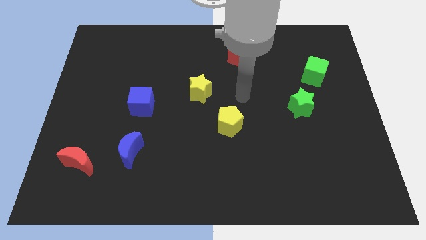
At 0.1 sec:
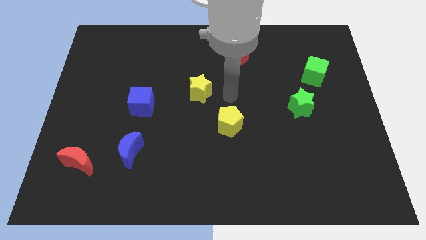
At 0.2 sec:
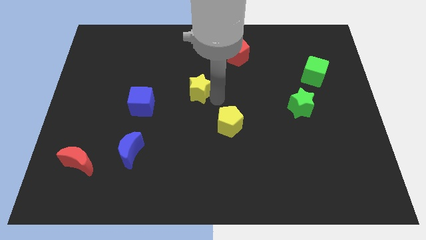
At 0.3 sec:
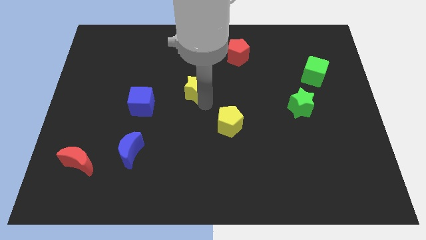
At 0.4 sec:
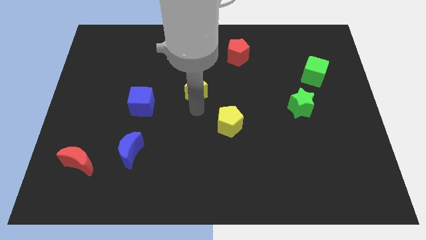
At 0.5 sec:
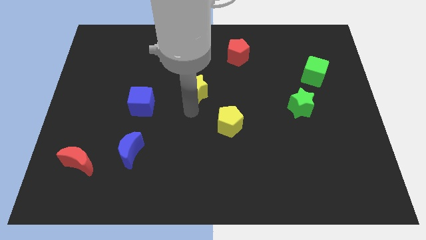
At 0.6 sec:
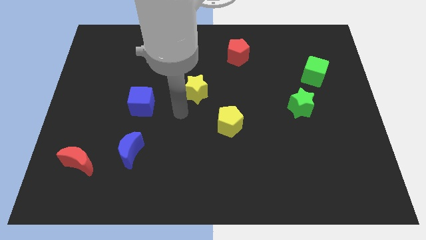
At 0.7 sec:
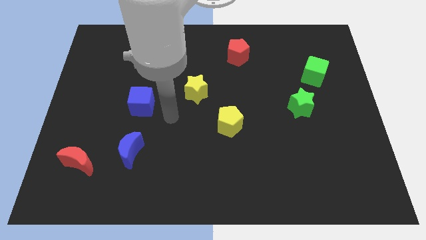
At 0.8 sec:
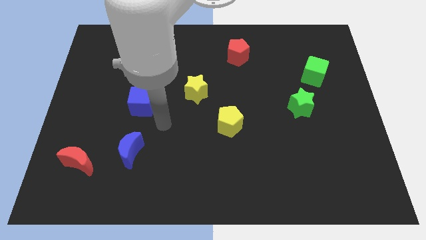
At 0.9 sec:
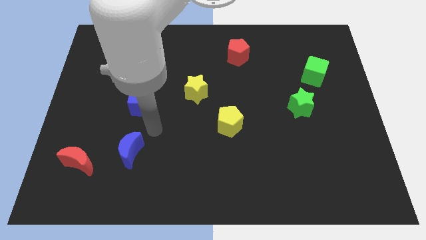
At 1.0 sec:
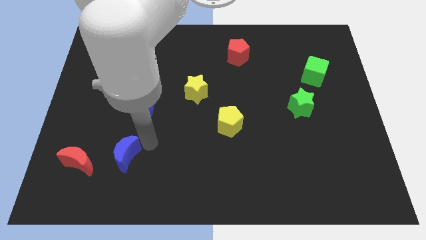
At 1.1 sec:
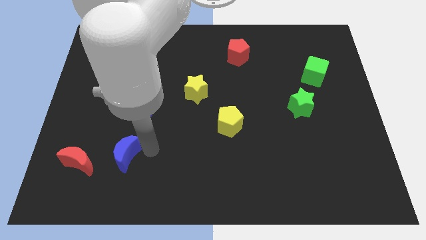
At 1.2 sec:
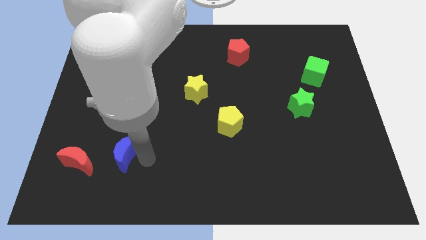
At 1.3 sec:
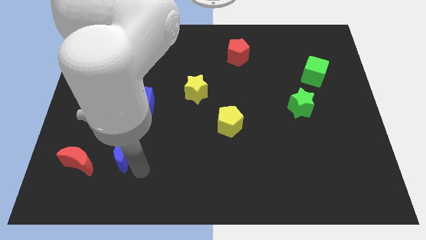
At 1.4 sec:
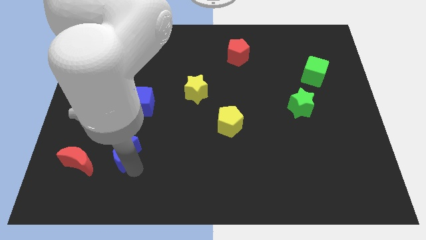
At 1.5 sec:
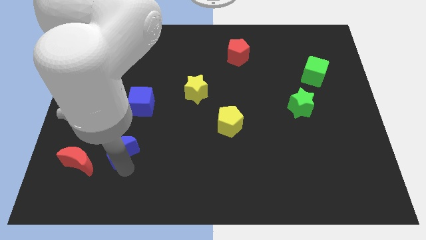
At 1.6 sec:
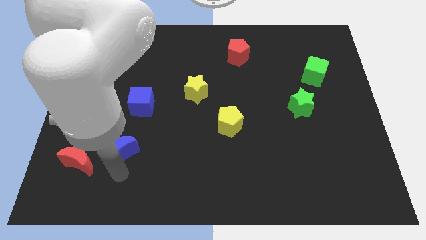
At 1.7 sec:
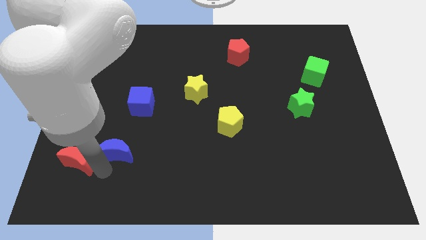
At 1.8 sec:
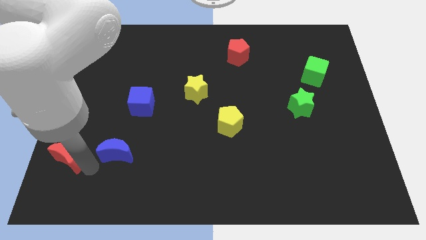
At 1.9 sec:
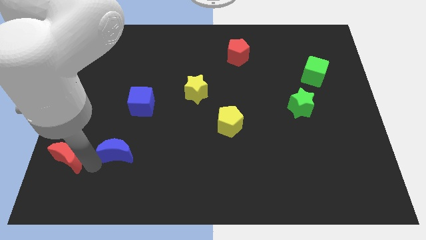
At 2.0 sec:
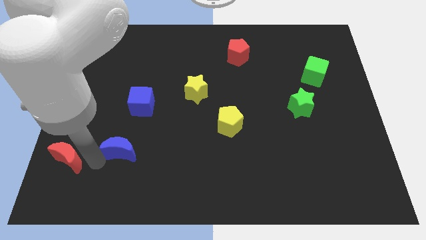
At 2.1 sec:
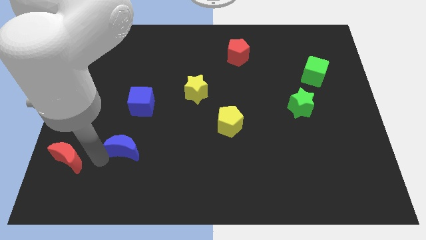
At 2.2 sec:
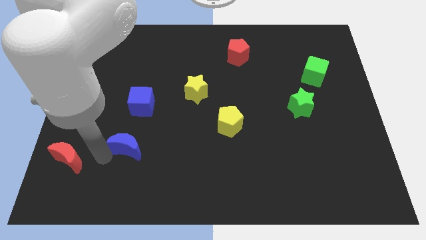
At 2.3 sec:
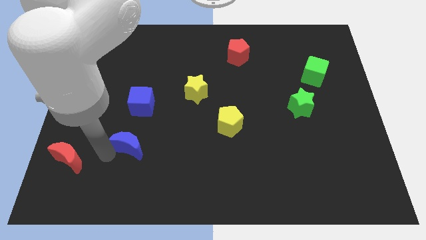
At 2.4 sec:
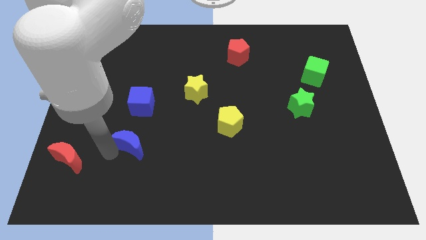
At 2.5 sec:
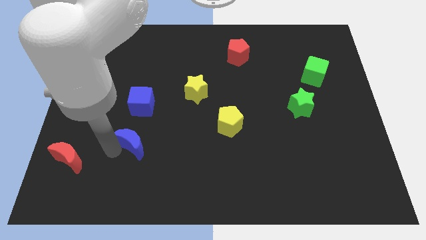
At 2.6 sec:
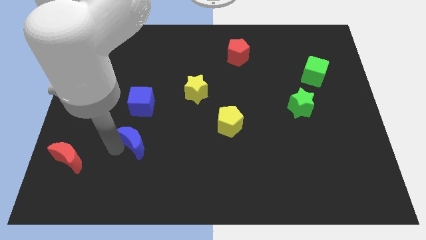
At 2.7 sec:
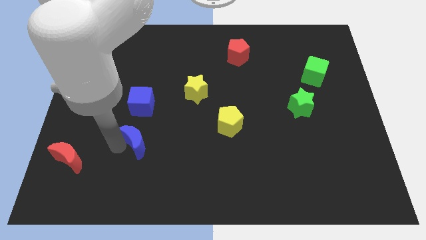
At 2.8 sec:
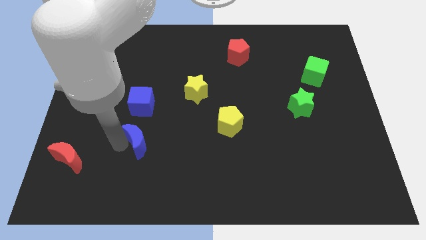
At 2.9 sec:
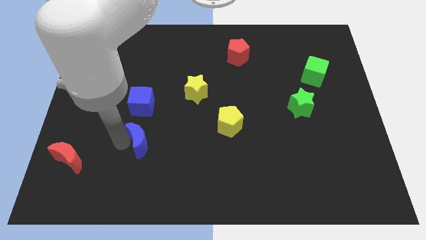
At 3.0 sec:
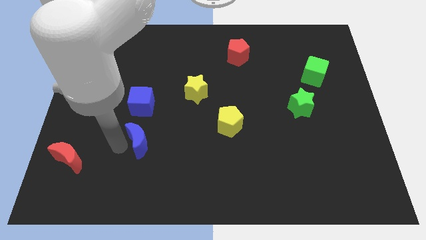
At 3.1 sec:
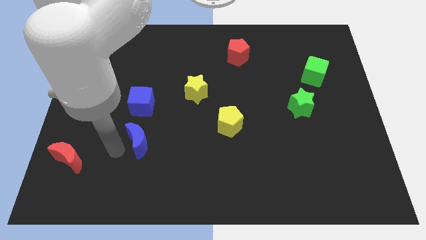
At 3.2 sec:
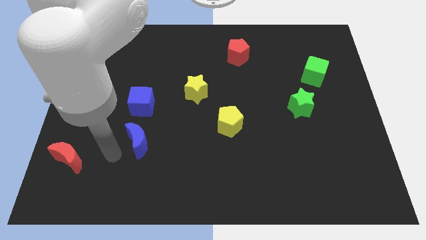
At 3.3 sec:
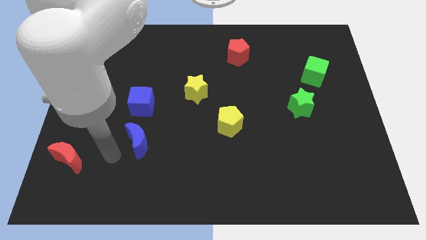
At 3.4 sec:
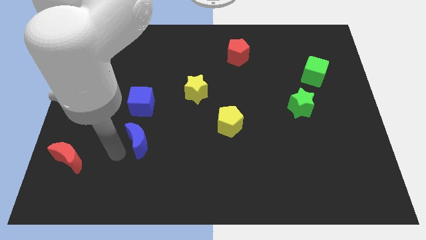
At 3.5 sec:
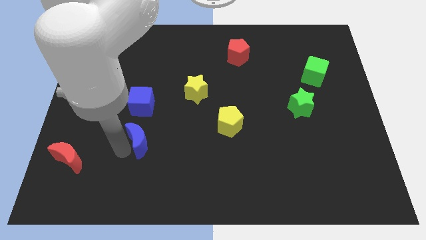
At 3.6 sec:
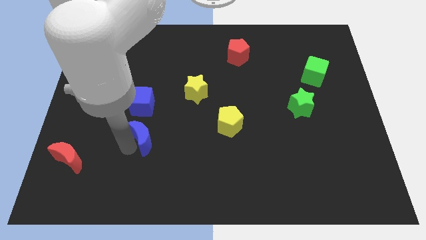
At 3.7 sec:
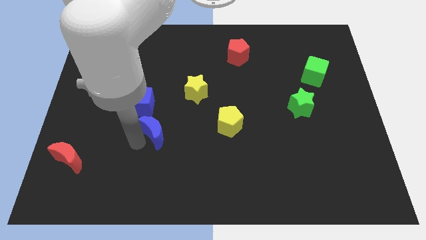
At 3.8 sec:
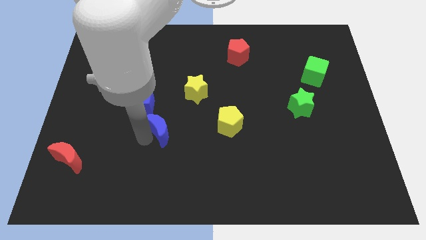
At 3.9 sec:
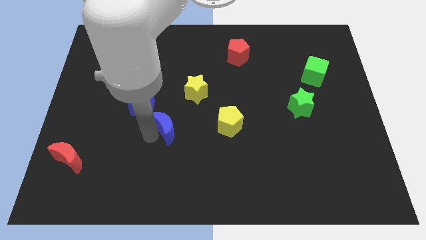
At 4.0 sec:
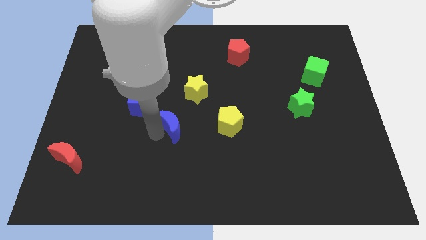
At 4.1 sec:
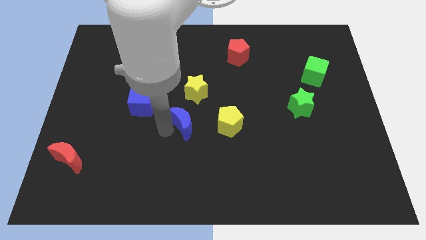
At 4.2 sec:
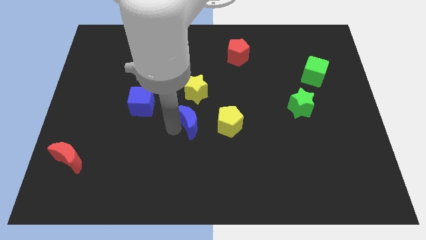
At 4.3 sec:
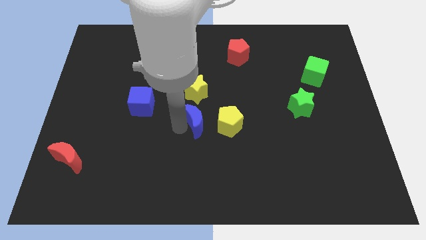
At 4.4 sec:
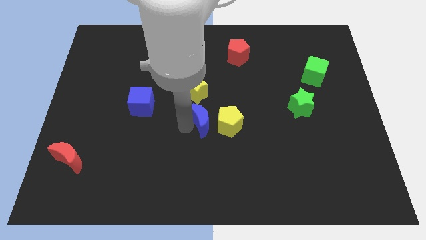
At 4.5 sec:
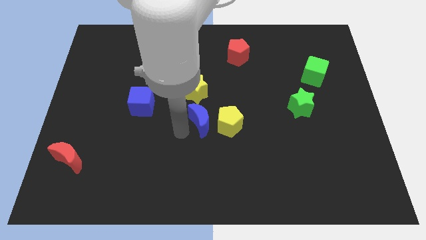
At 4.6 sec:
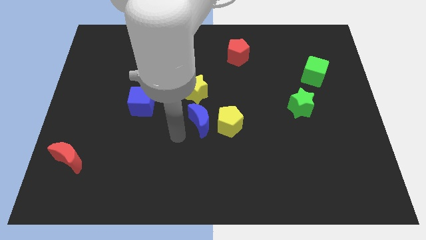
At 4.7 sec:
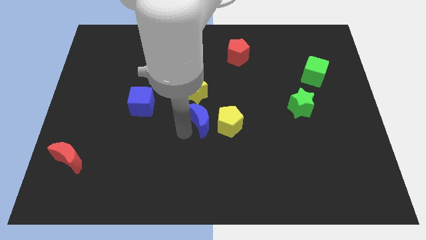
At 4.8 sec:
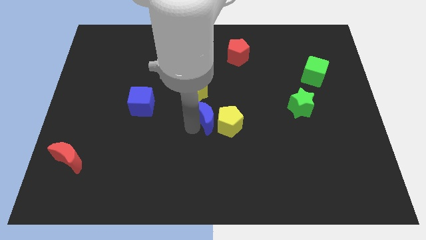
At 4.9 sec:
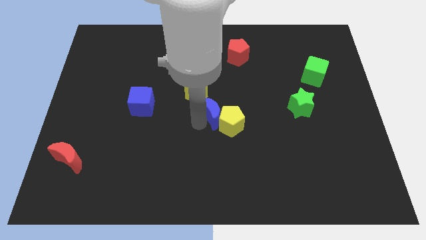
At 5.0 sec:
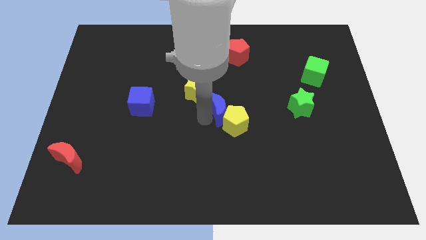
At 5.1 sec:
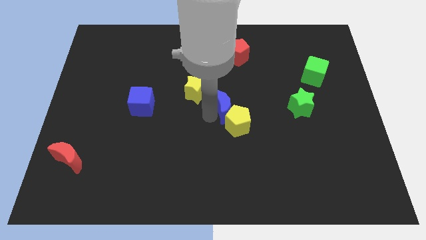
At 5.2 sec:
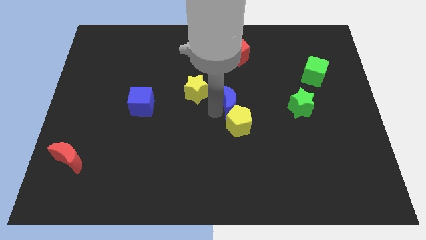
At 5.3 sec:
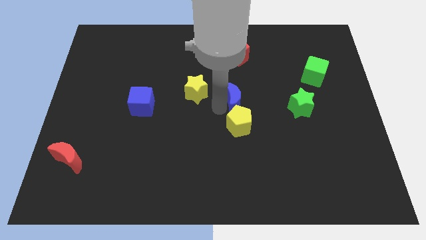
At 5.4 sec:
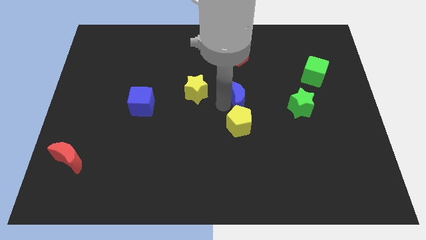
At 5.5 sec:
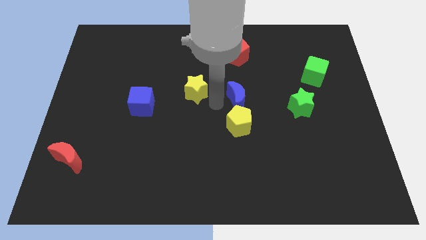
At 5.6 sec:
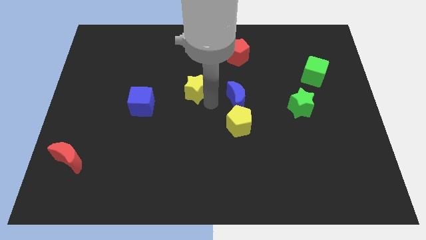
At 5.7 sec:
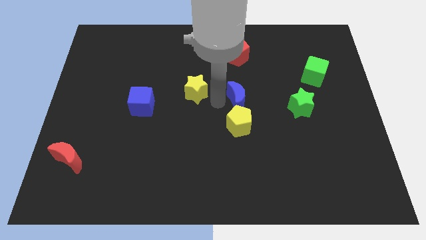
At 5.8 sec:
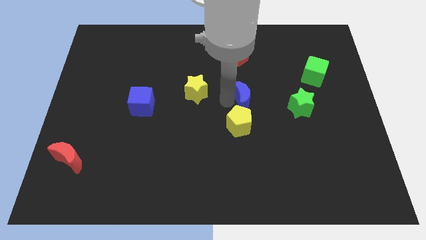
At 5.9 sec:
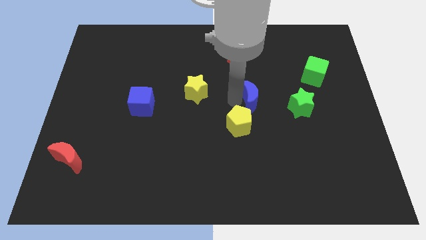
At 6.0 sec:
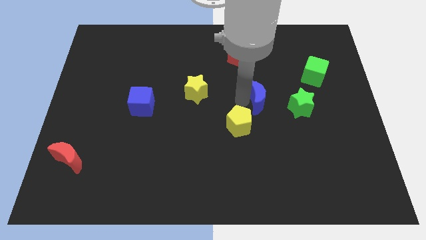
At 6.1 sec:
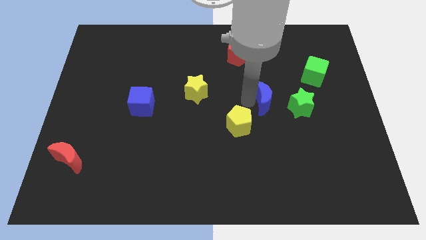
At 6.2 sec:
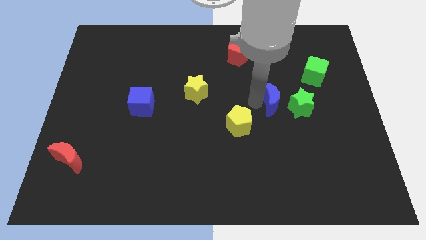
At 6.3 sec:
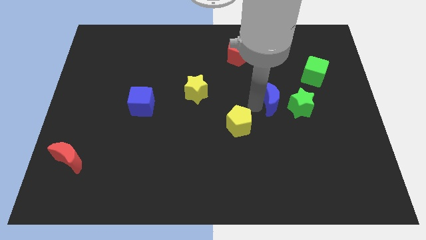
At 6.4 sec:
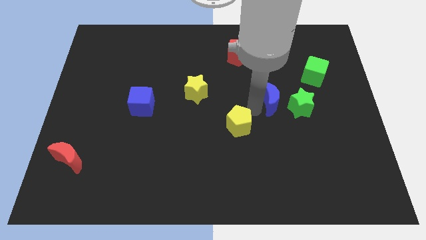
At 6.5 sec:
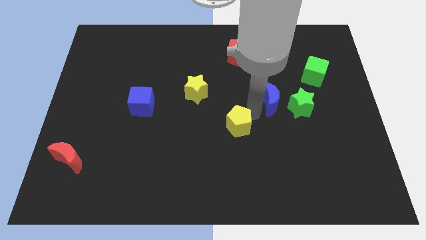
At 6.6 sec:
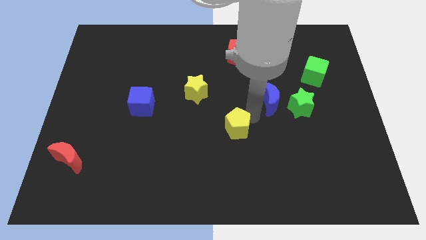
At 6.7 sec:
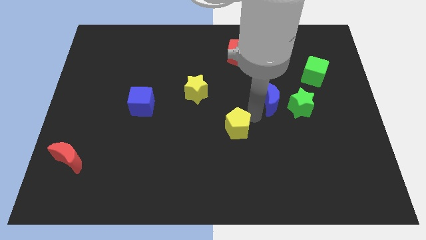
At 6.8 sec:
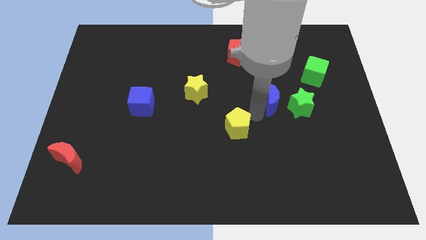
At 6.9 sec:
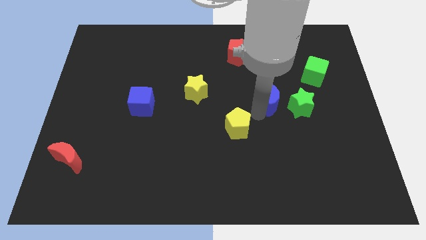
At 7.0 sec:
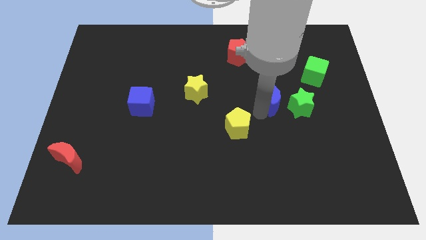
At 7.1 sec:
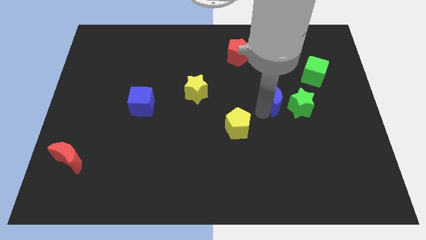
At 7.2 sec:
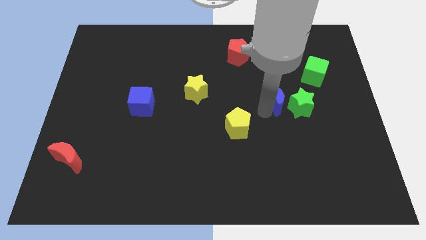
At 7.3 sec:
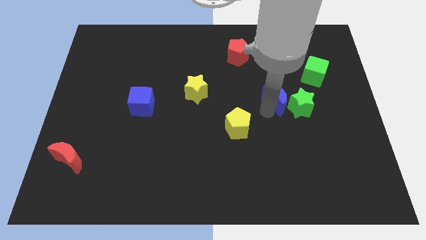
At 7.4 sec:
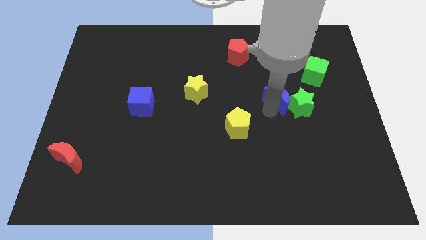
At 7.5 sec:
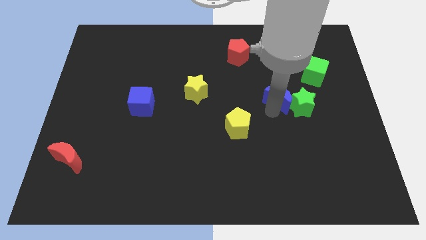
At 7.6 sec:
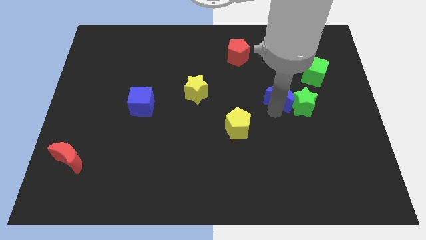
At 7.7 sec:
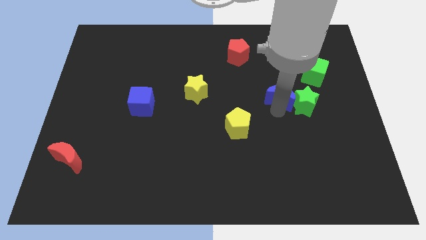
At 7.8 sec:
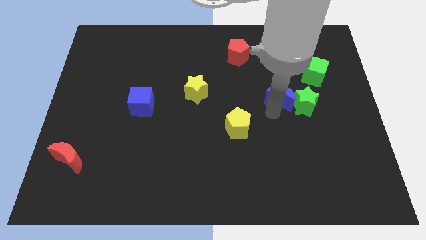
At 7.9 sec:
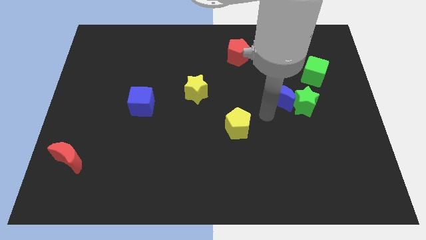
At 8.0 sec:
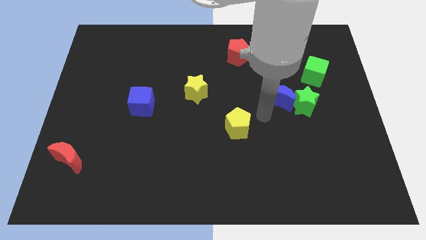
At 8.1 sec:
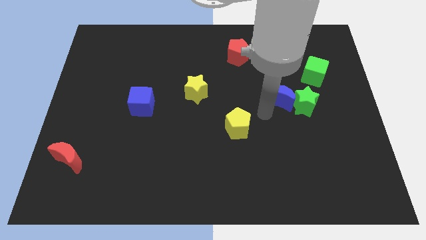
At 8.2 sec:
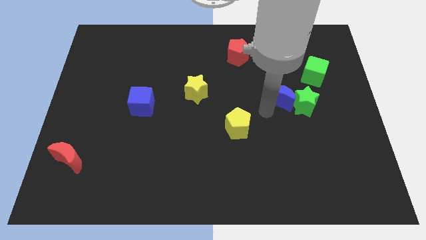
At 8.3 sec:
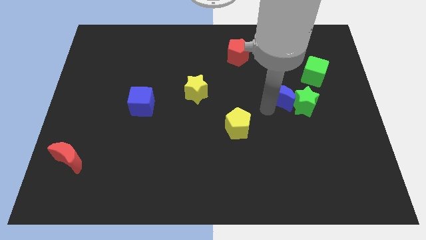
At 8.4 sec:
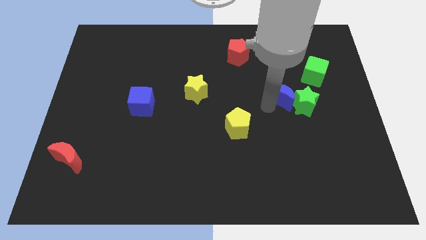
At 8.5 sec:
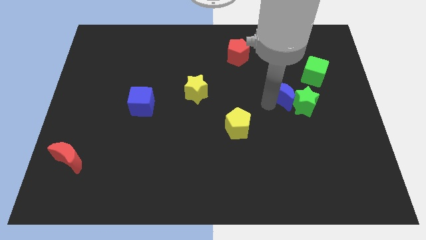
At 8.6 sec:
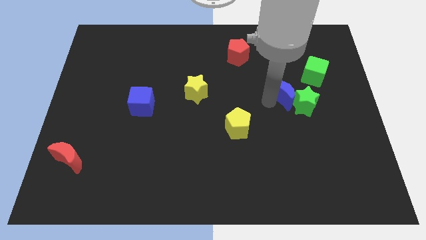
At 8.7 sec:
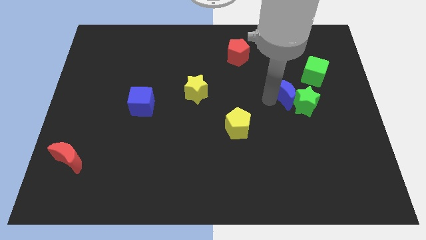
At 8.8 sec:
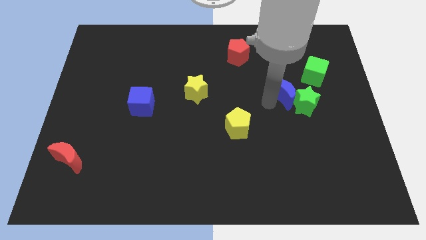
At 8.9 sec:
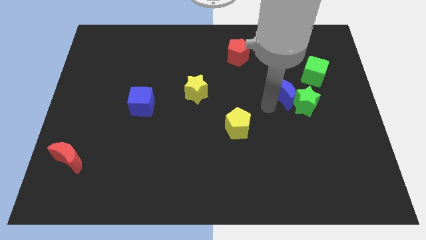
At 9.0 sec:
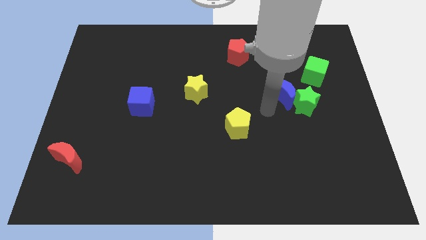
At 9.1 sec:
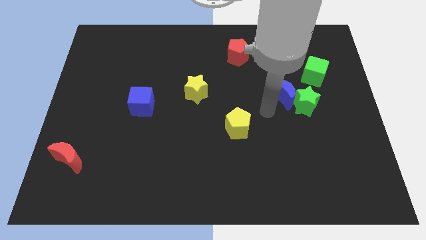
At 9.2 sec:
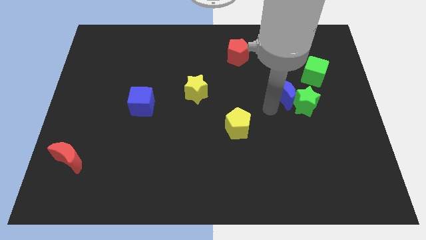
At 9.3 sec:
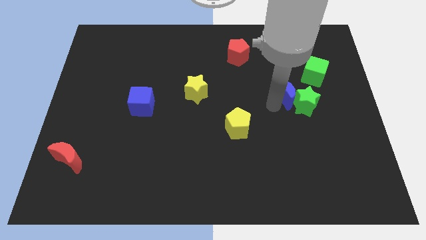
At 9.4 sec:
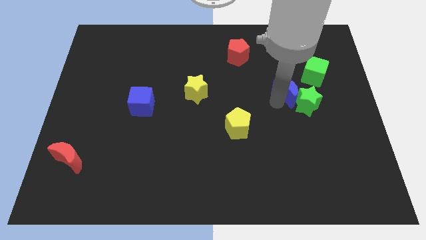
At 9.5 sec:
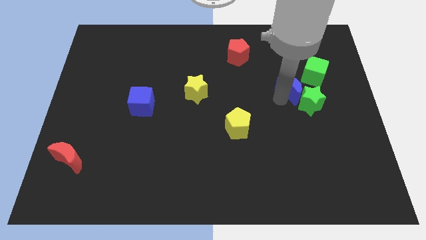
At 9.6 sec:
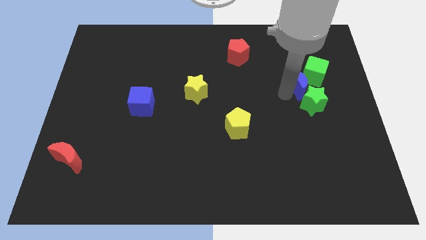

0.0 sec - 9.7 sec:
slide the blue moon to the green cube
